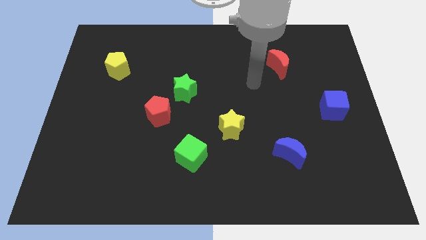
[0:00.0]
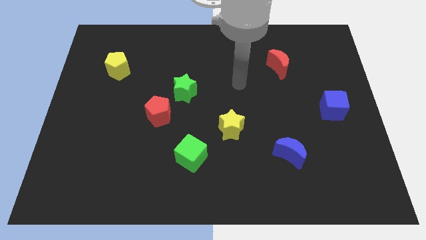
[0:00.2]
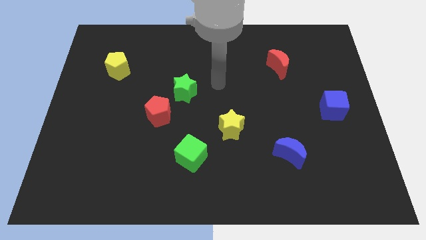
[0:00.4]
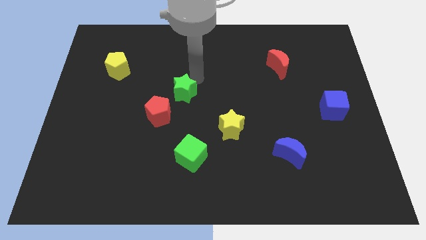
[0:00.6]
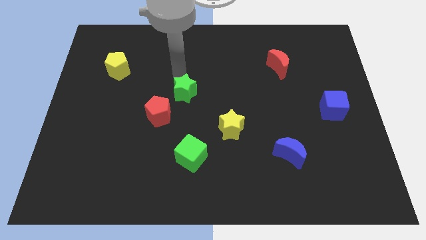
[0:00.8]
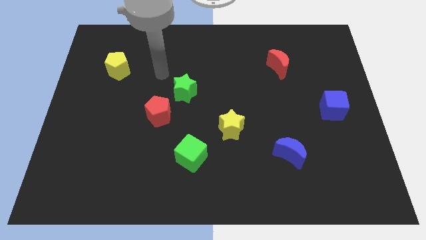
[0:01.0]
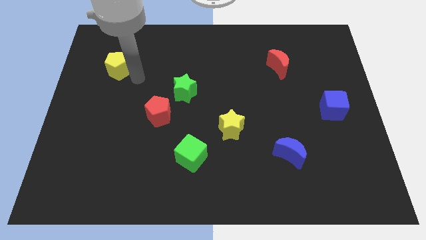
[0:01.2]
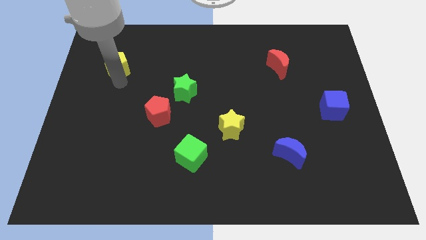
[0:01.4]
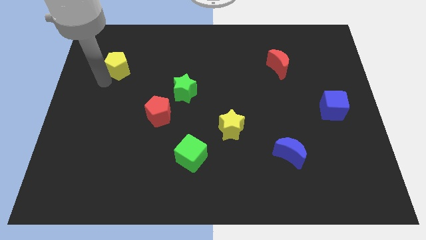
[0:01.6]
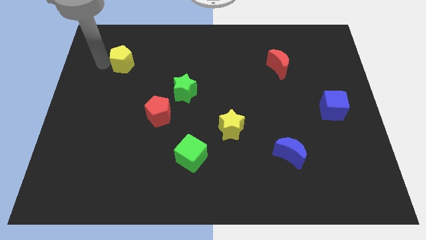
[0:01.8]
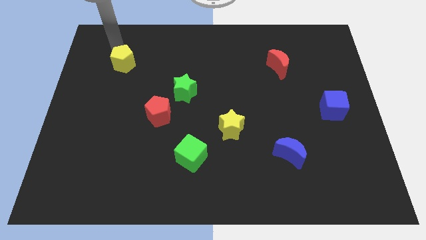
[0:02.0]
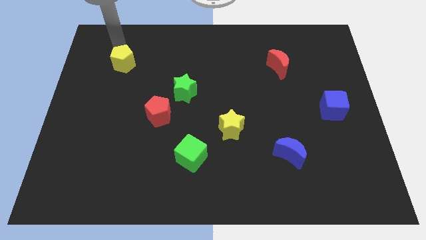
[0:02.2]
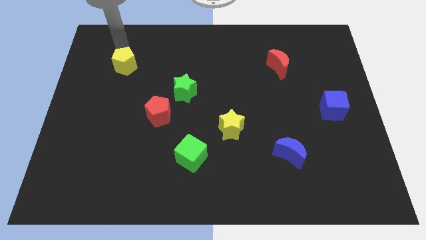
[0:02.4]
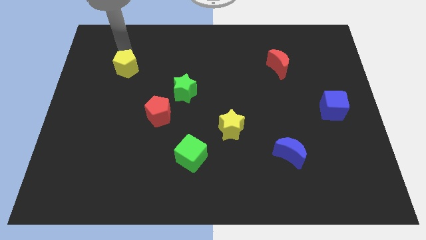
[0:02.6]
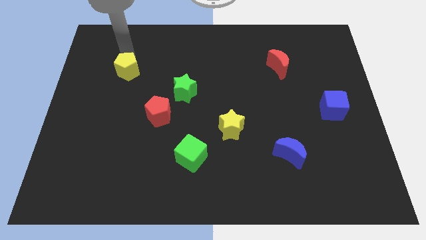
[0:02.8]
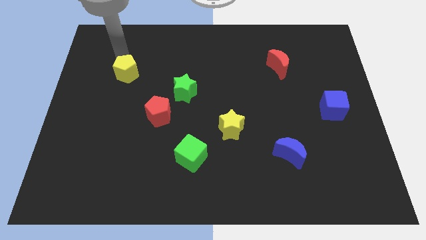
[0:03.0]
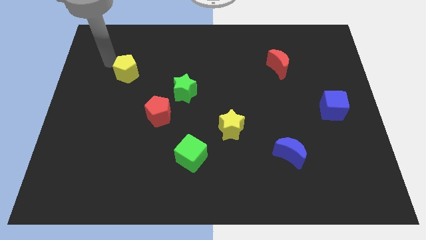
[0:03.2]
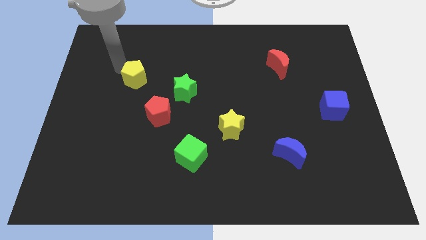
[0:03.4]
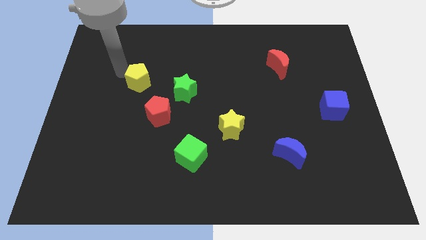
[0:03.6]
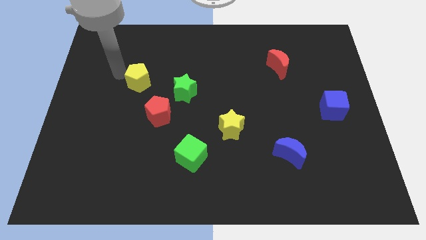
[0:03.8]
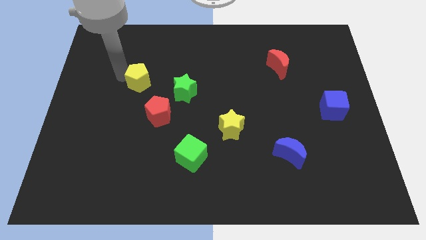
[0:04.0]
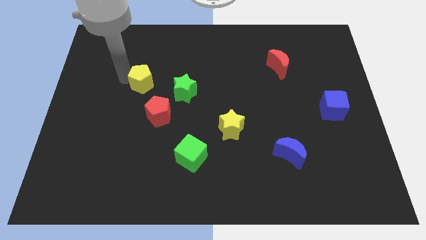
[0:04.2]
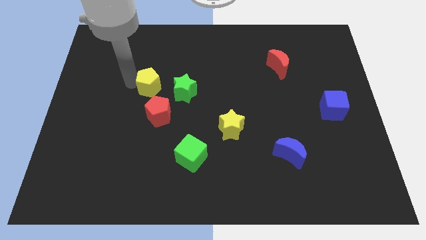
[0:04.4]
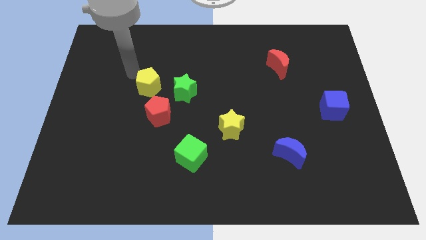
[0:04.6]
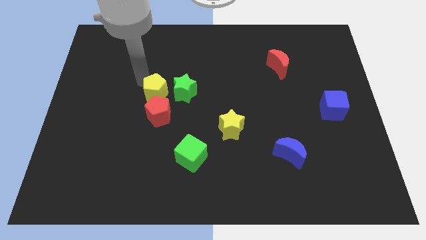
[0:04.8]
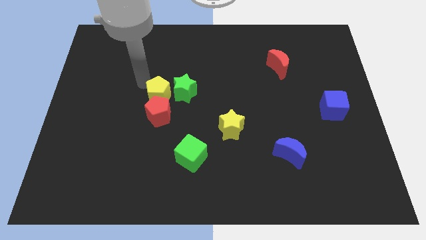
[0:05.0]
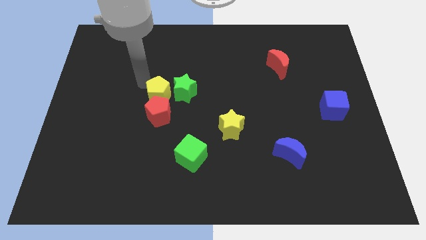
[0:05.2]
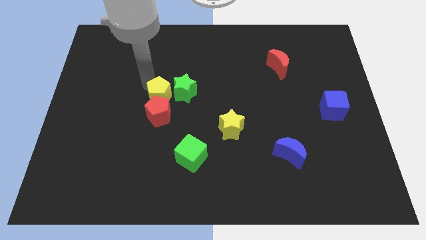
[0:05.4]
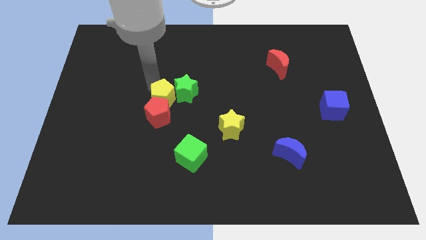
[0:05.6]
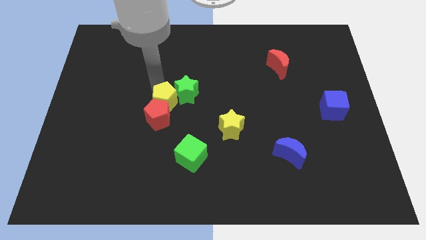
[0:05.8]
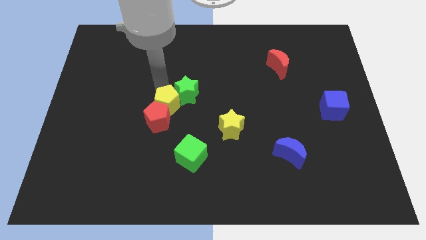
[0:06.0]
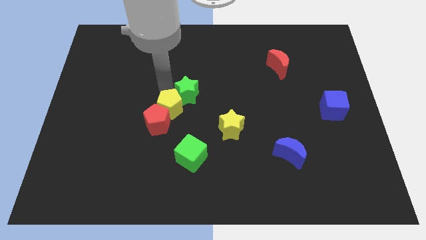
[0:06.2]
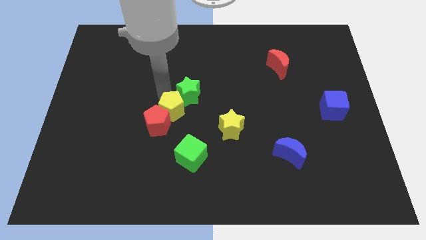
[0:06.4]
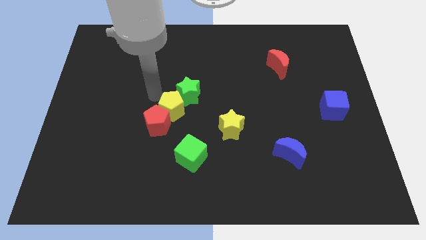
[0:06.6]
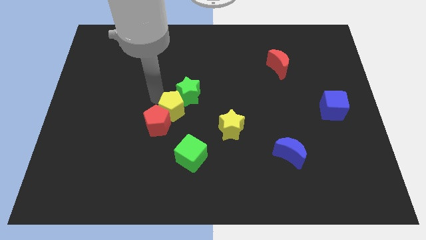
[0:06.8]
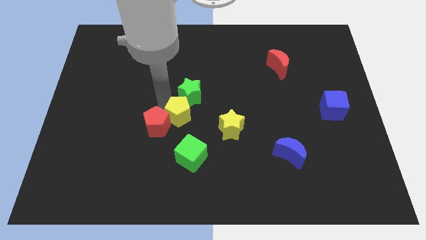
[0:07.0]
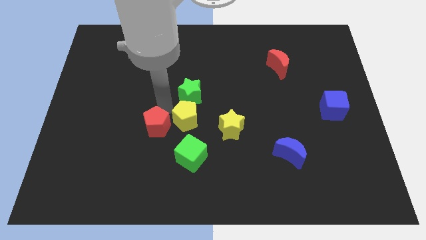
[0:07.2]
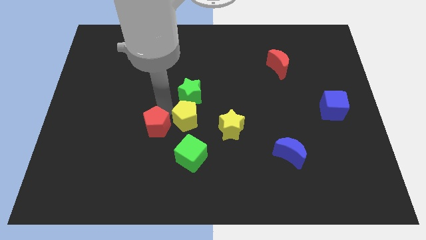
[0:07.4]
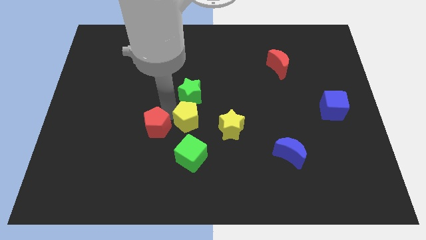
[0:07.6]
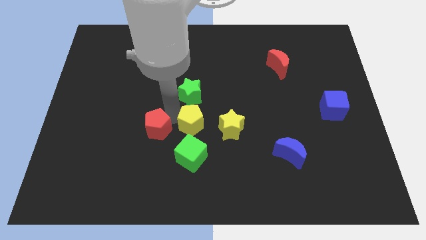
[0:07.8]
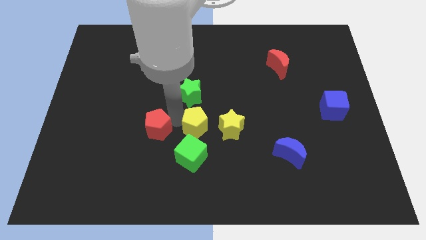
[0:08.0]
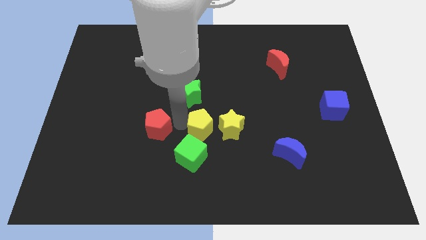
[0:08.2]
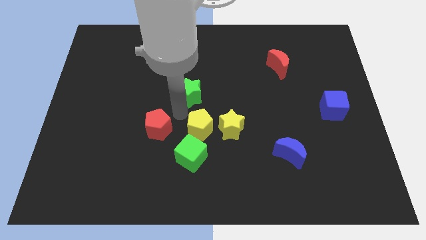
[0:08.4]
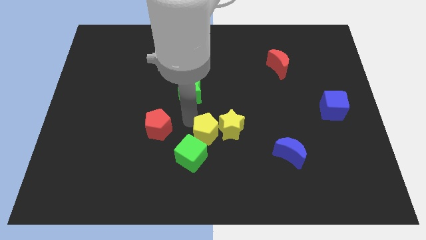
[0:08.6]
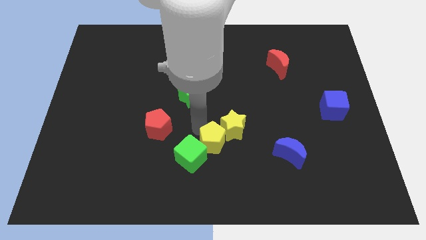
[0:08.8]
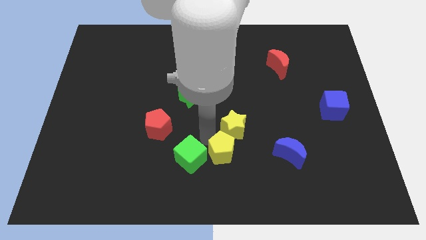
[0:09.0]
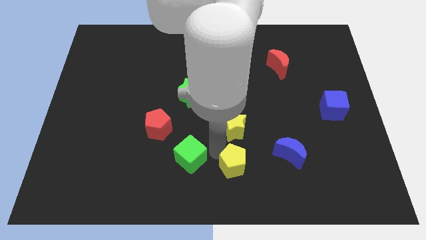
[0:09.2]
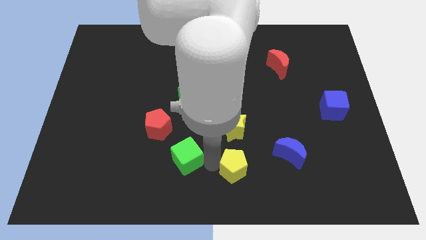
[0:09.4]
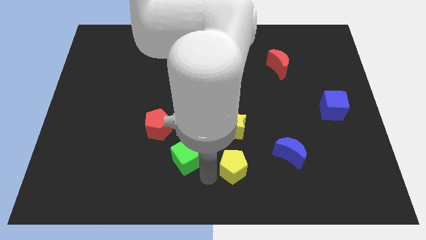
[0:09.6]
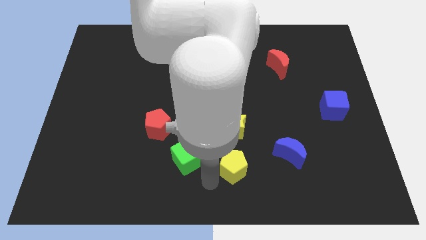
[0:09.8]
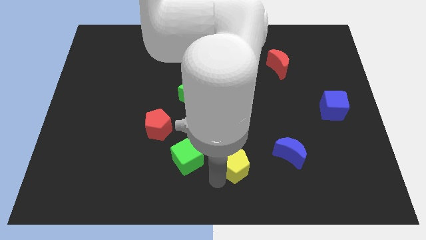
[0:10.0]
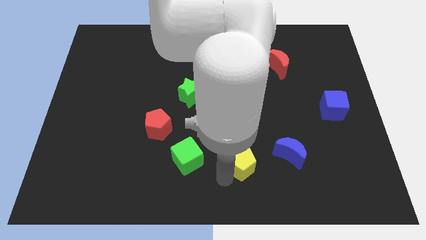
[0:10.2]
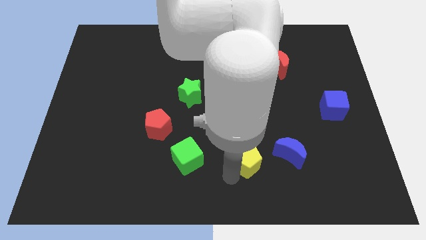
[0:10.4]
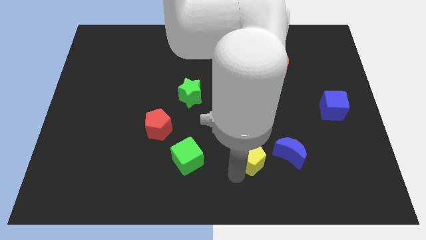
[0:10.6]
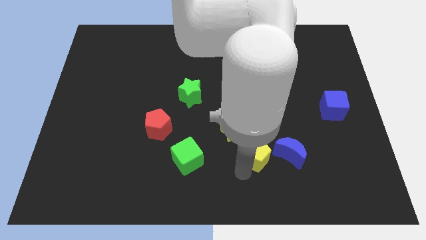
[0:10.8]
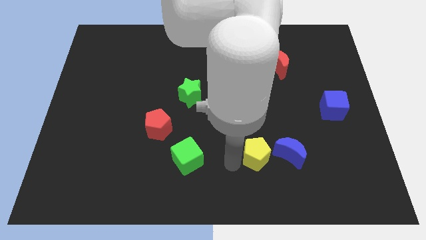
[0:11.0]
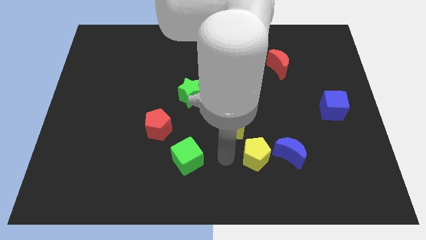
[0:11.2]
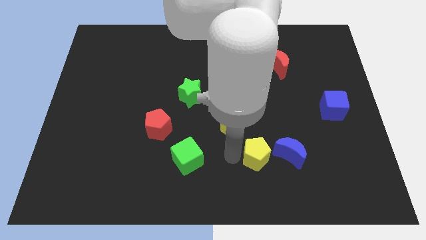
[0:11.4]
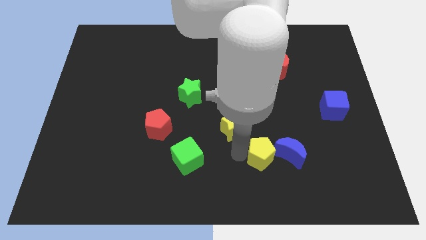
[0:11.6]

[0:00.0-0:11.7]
put the yellow pentagon close to the blue moon

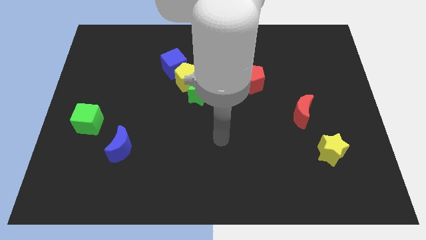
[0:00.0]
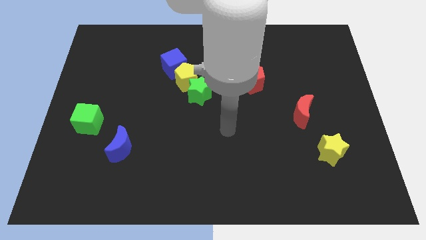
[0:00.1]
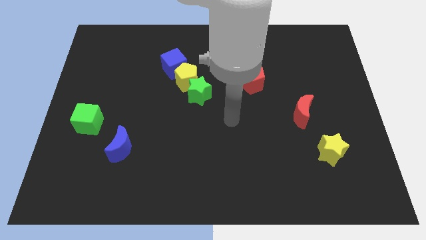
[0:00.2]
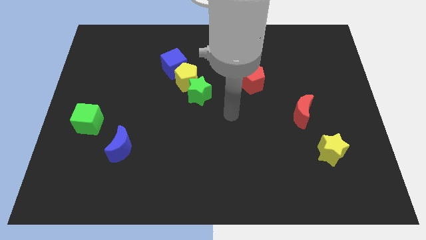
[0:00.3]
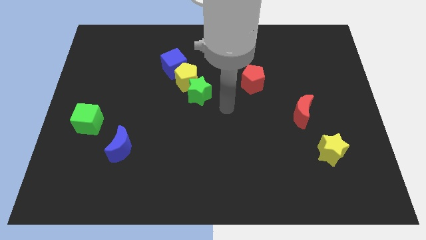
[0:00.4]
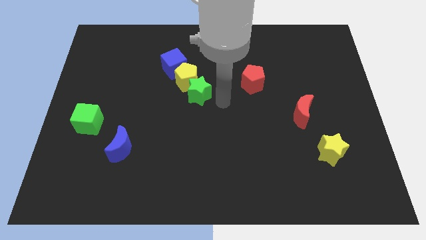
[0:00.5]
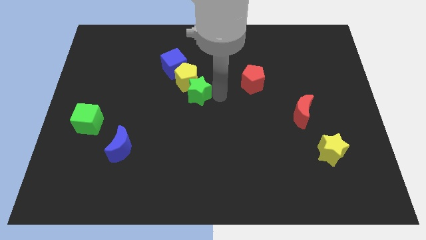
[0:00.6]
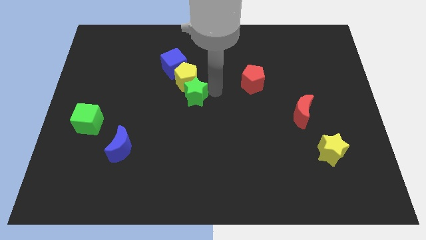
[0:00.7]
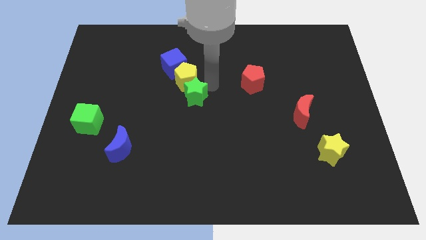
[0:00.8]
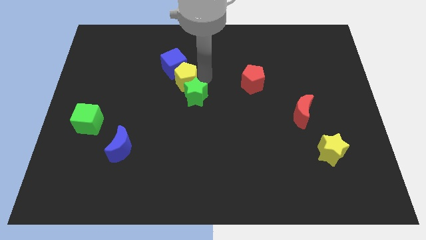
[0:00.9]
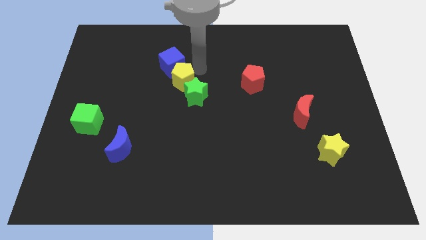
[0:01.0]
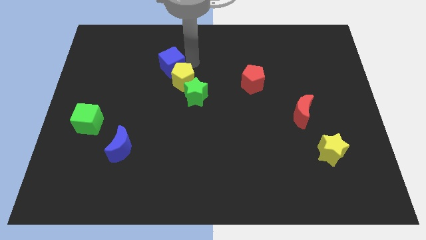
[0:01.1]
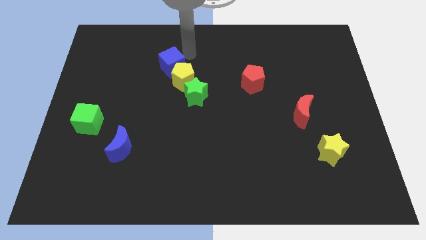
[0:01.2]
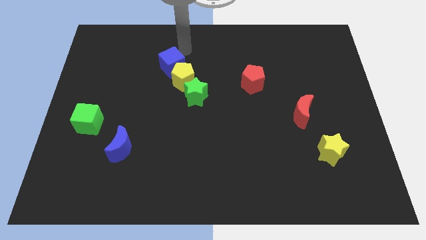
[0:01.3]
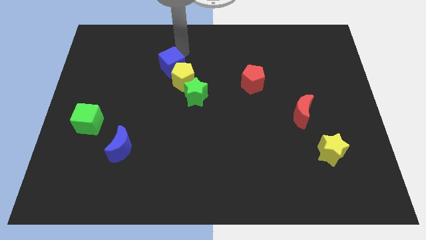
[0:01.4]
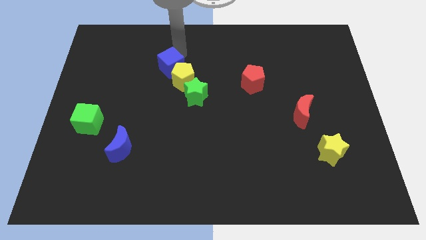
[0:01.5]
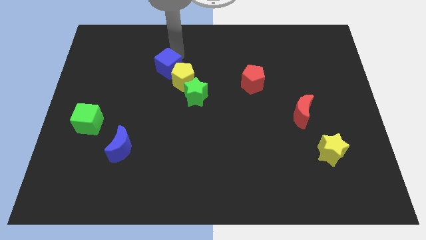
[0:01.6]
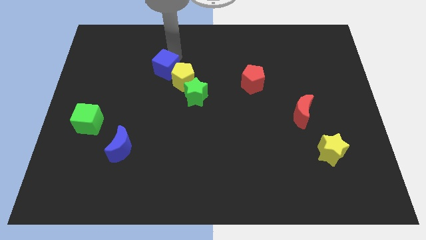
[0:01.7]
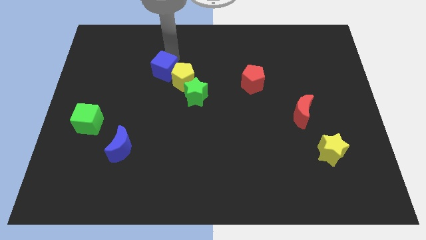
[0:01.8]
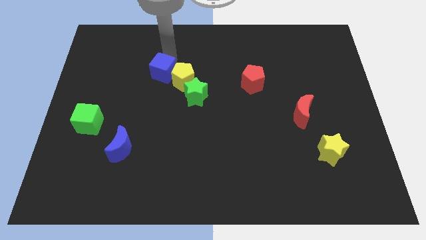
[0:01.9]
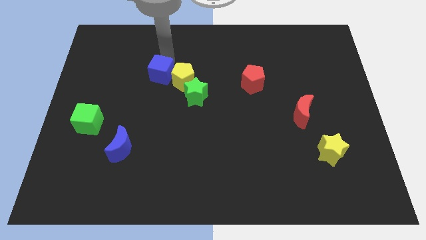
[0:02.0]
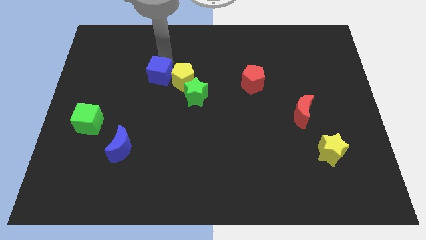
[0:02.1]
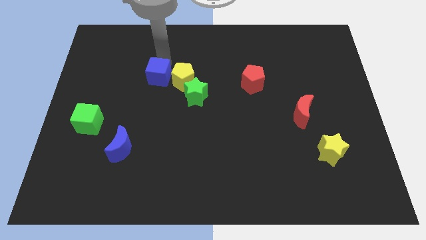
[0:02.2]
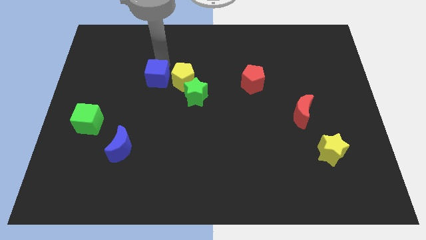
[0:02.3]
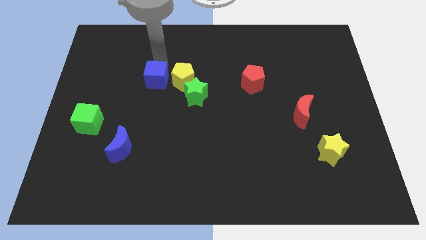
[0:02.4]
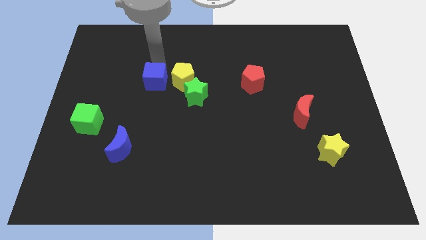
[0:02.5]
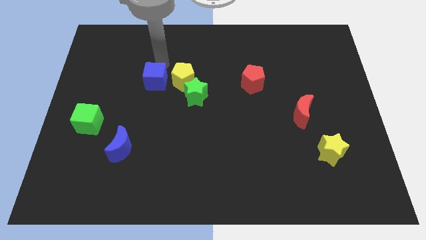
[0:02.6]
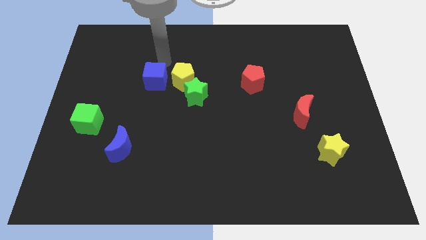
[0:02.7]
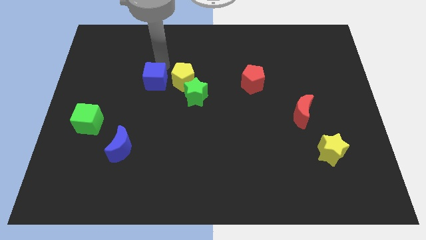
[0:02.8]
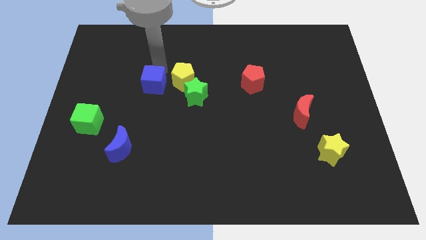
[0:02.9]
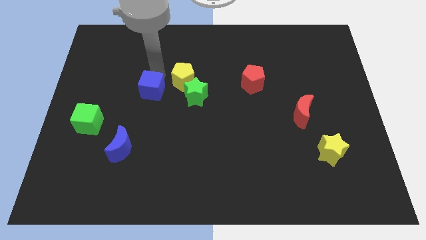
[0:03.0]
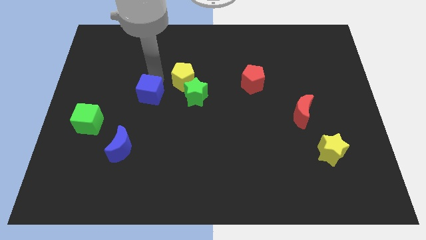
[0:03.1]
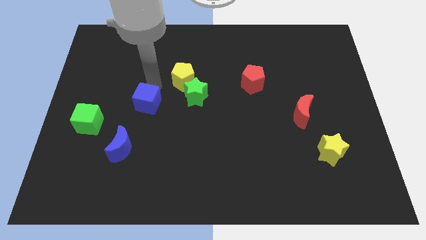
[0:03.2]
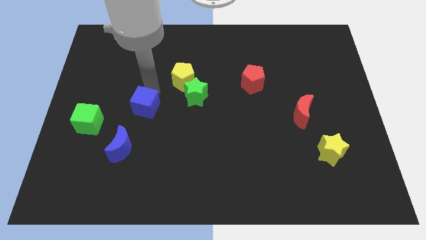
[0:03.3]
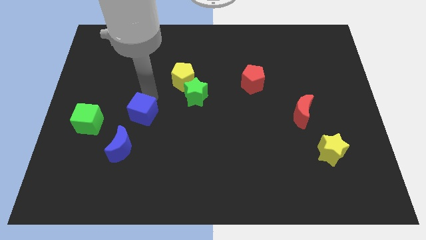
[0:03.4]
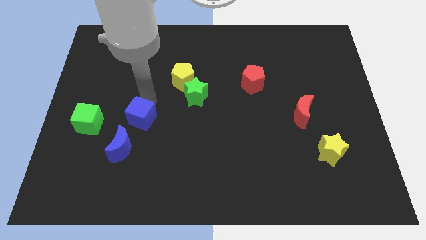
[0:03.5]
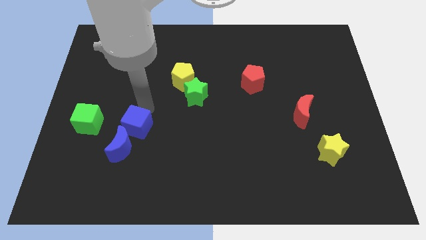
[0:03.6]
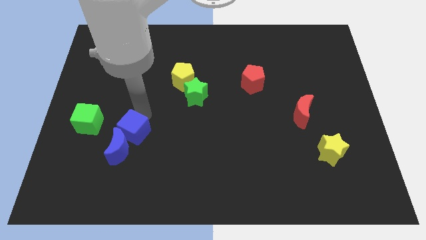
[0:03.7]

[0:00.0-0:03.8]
move the blue cube next to the blue moon
